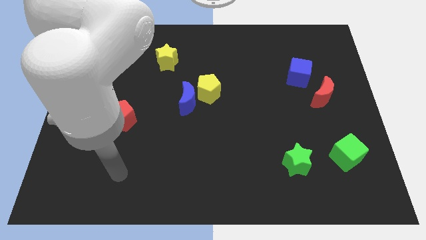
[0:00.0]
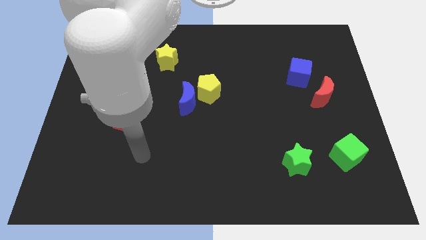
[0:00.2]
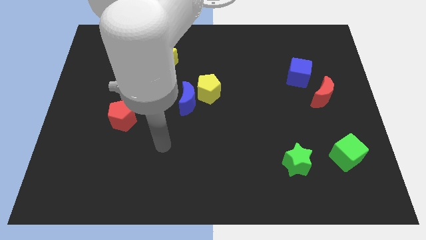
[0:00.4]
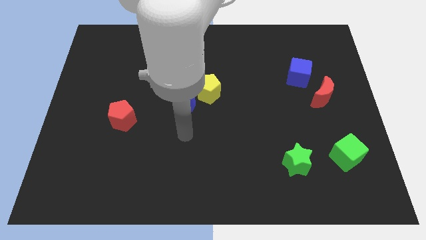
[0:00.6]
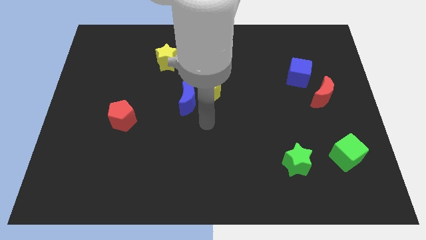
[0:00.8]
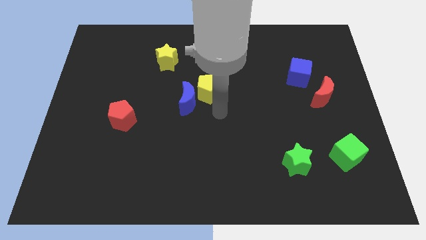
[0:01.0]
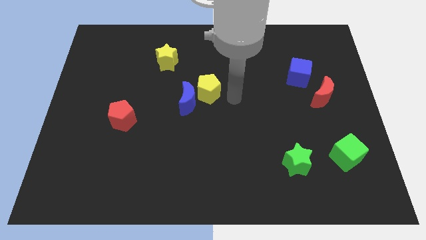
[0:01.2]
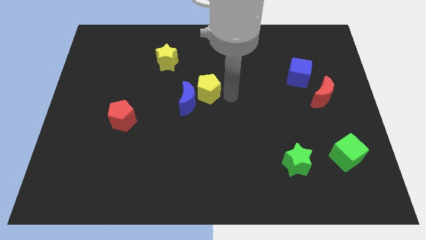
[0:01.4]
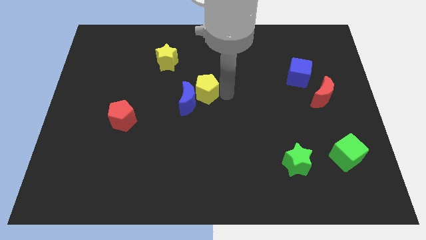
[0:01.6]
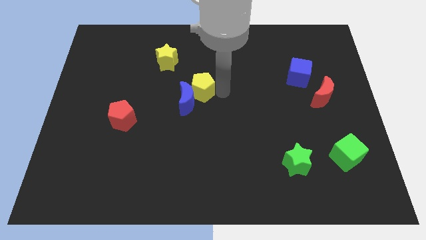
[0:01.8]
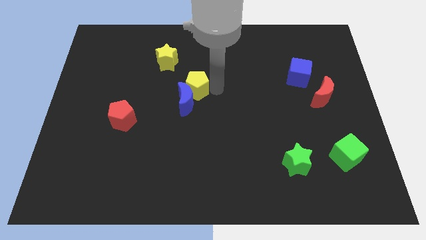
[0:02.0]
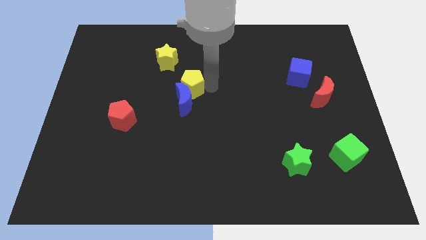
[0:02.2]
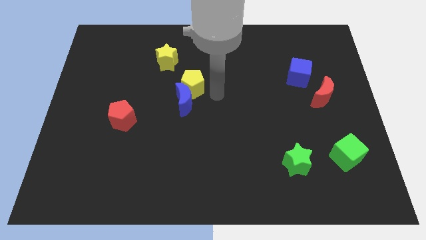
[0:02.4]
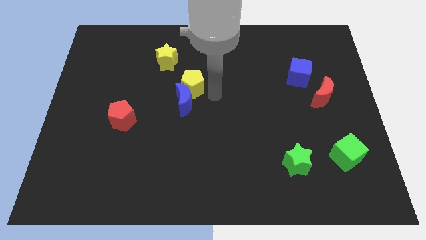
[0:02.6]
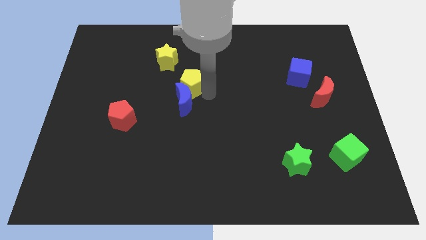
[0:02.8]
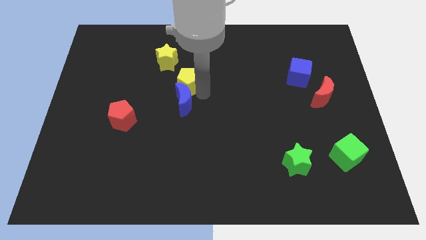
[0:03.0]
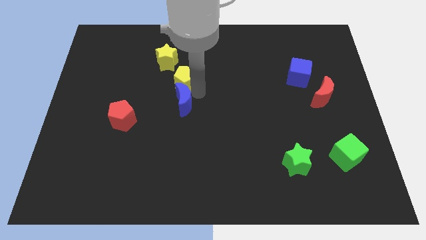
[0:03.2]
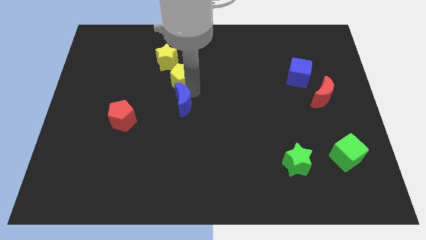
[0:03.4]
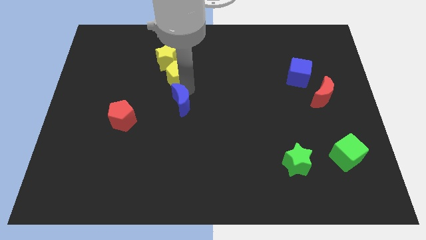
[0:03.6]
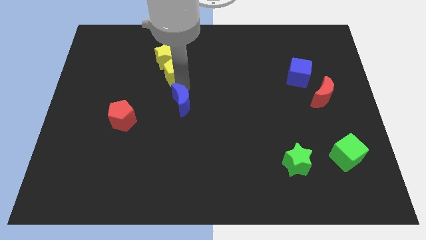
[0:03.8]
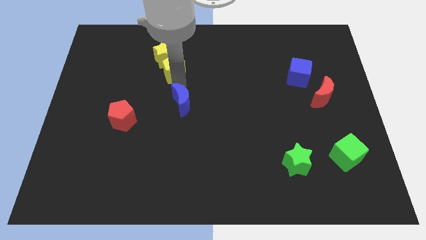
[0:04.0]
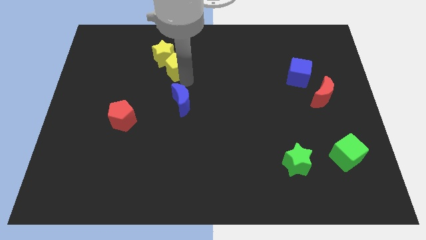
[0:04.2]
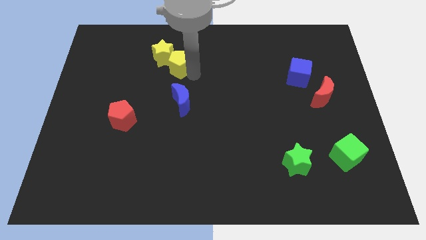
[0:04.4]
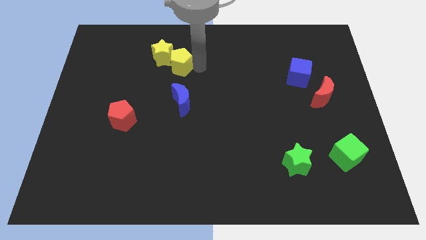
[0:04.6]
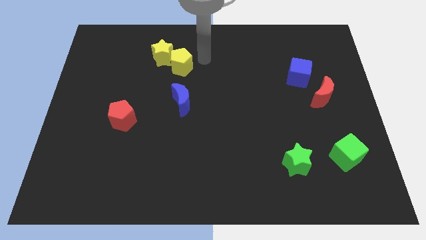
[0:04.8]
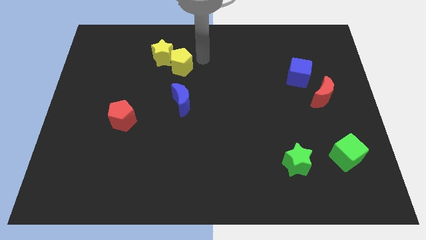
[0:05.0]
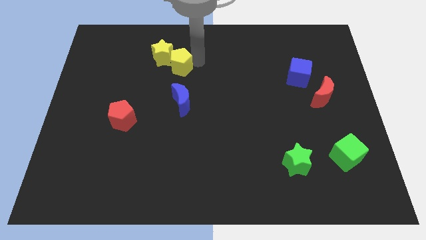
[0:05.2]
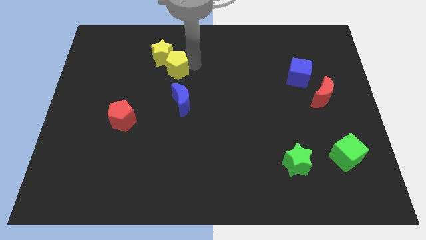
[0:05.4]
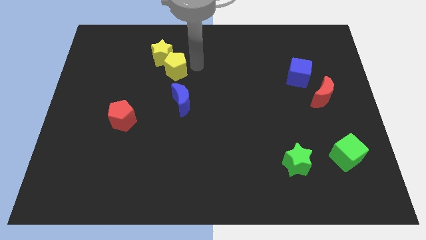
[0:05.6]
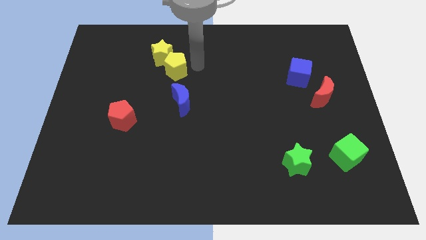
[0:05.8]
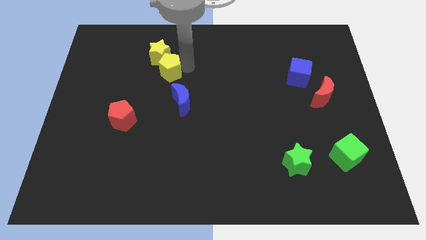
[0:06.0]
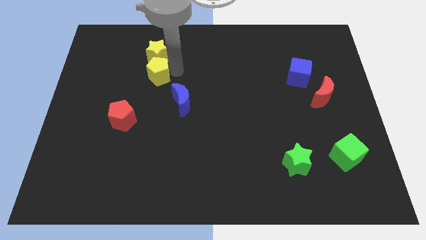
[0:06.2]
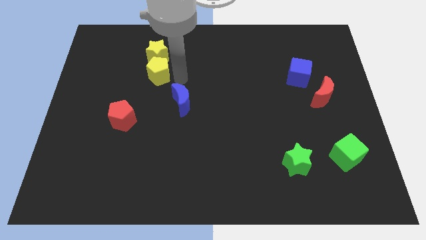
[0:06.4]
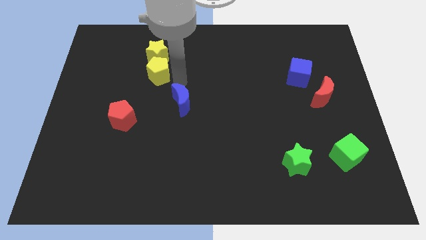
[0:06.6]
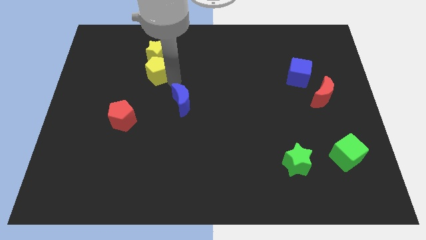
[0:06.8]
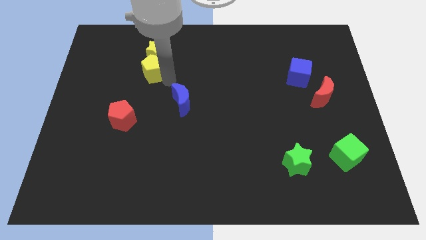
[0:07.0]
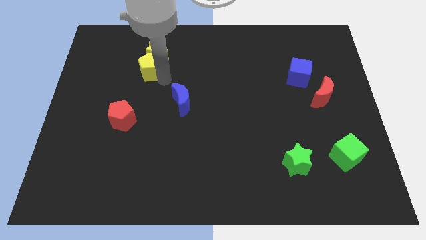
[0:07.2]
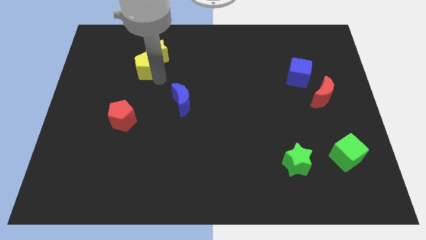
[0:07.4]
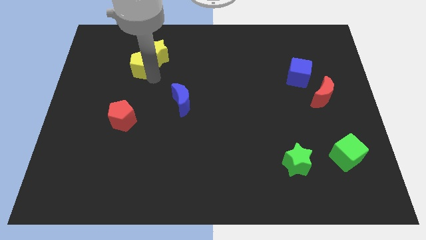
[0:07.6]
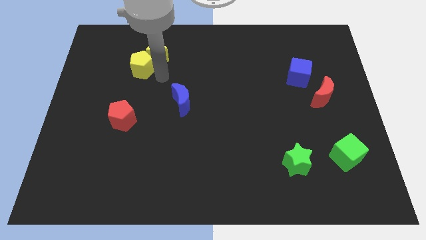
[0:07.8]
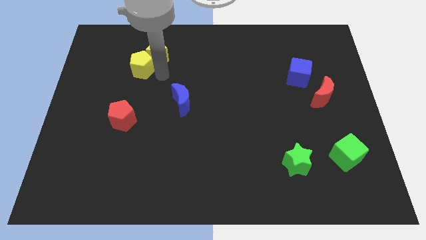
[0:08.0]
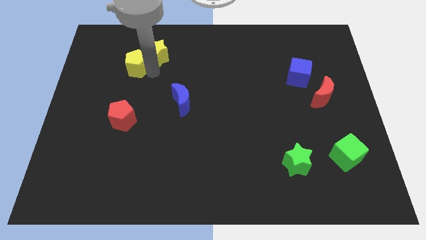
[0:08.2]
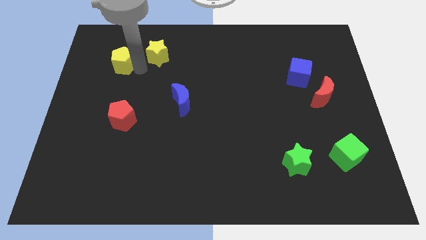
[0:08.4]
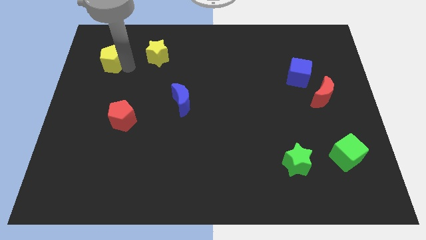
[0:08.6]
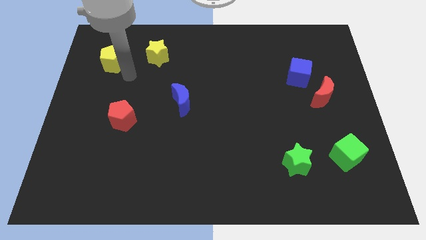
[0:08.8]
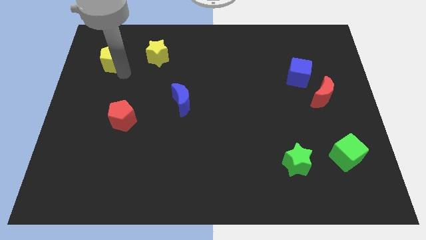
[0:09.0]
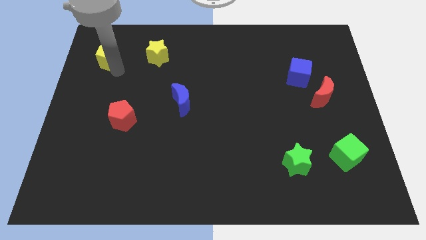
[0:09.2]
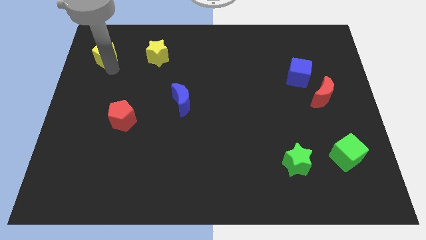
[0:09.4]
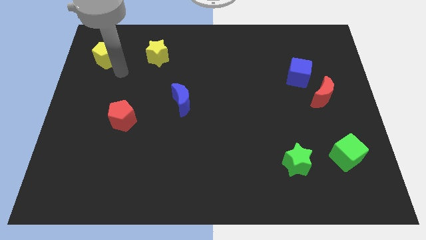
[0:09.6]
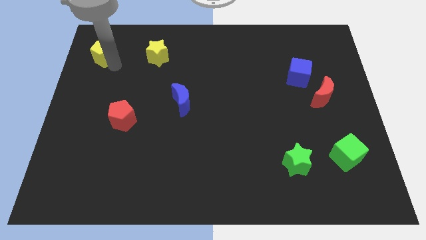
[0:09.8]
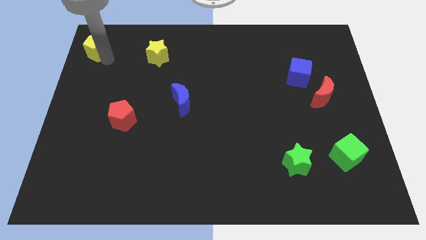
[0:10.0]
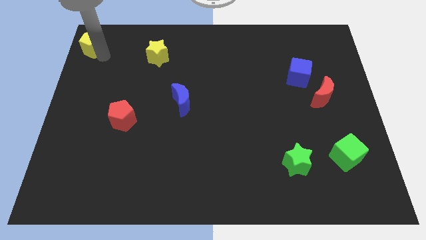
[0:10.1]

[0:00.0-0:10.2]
put the yellow pentagon to the upper left corner

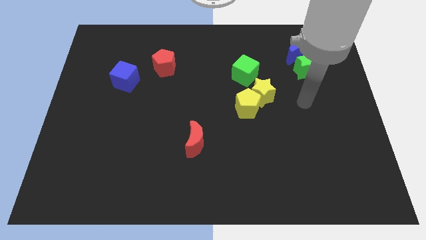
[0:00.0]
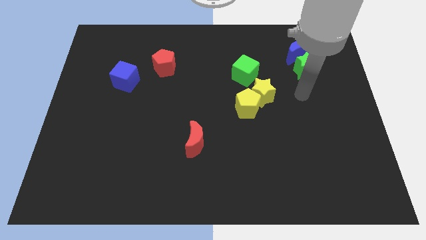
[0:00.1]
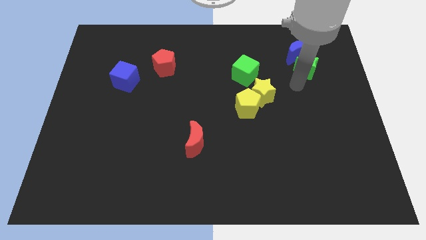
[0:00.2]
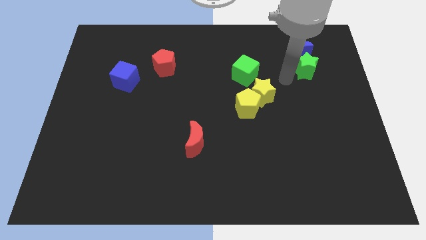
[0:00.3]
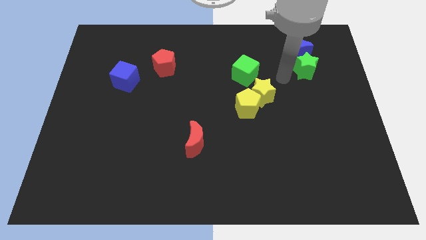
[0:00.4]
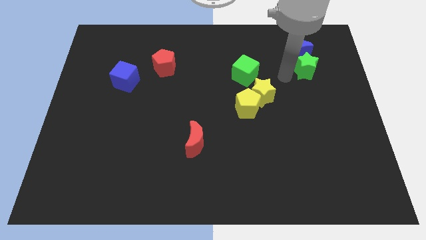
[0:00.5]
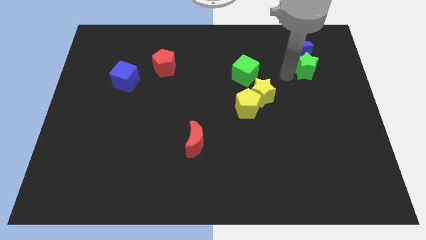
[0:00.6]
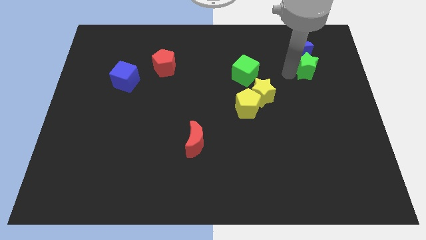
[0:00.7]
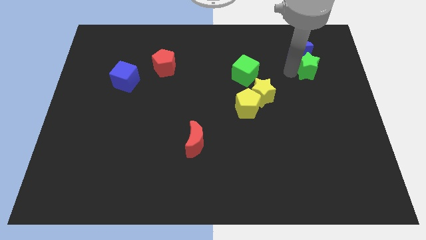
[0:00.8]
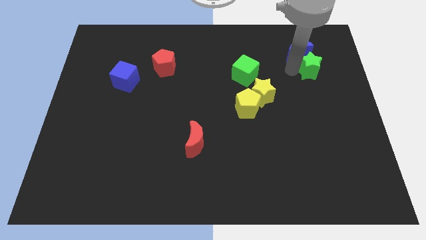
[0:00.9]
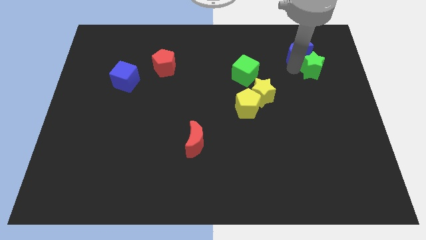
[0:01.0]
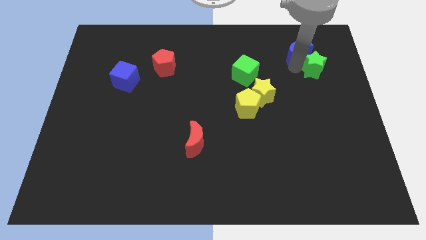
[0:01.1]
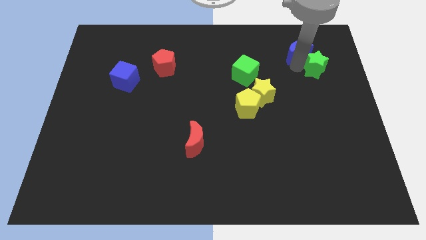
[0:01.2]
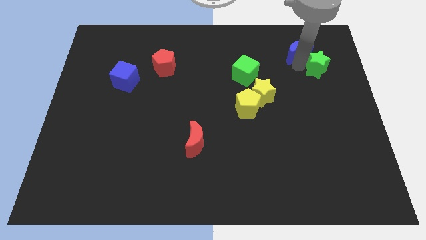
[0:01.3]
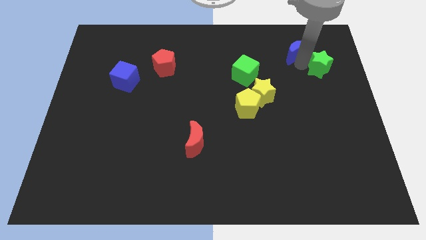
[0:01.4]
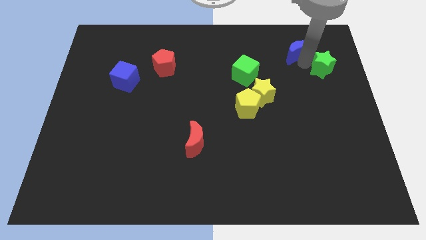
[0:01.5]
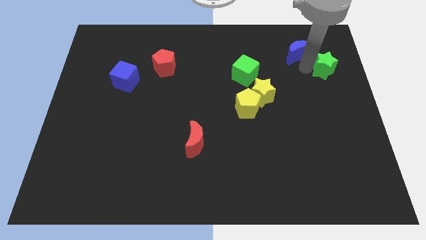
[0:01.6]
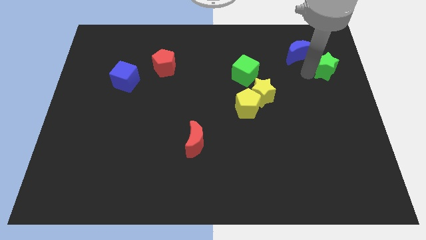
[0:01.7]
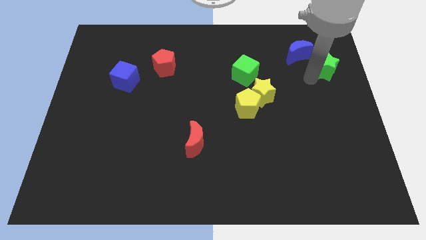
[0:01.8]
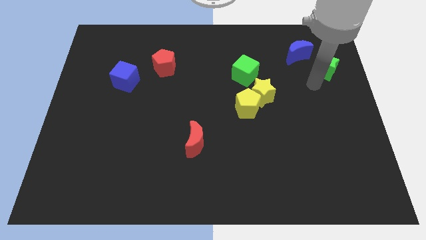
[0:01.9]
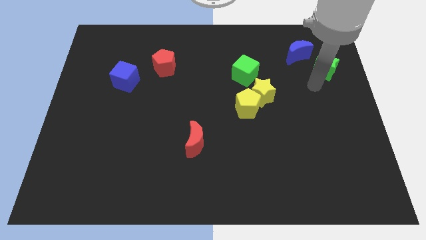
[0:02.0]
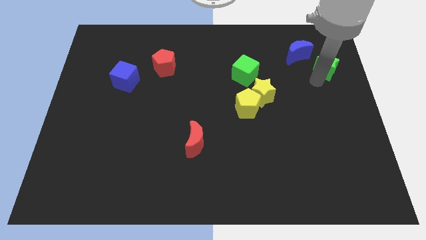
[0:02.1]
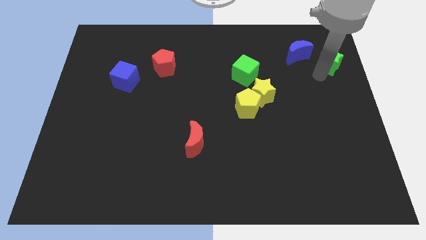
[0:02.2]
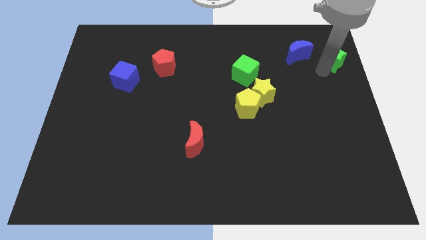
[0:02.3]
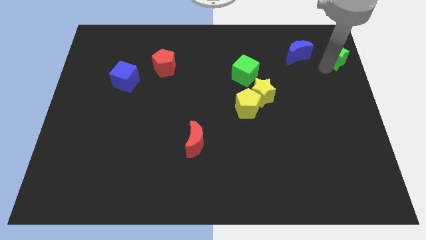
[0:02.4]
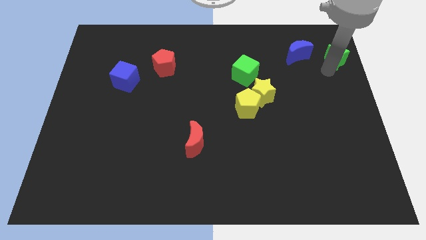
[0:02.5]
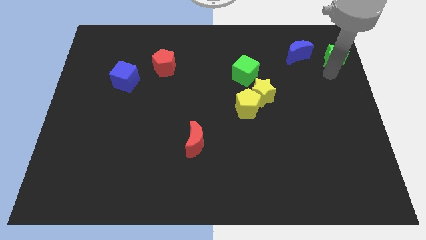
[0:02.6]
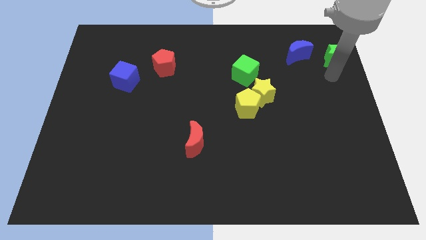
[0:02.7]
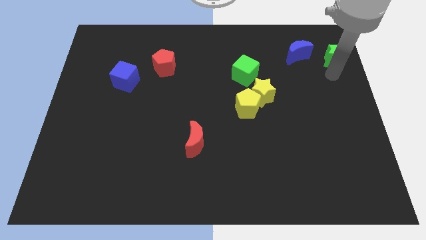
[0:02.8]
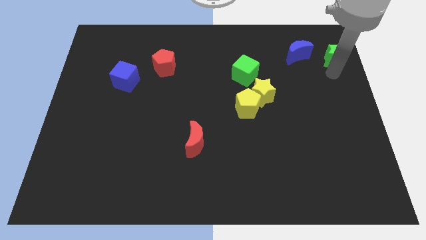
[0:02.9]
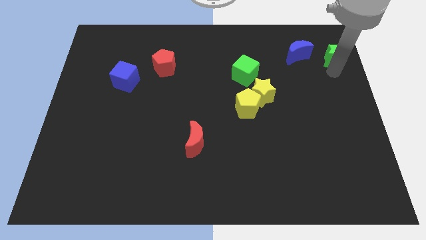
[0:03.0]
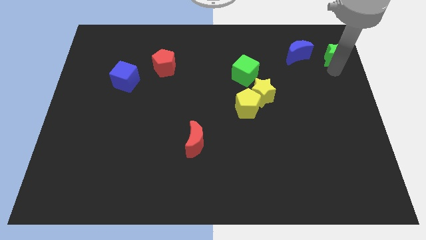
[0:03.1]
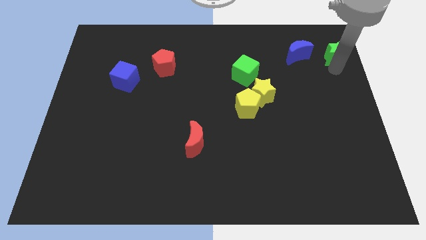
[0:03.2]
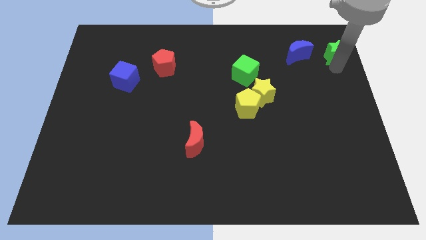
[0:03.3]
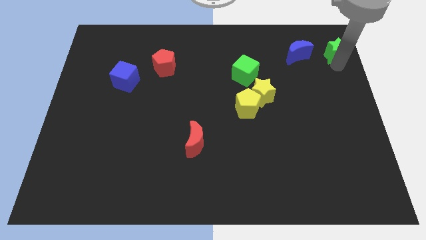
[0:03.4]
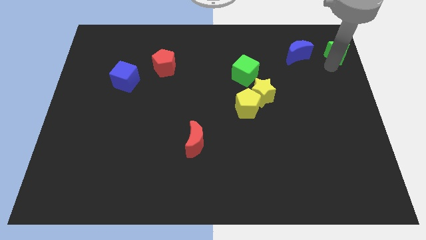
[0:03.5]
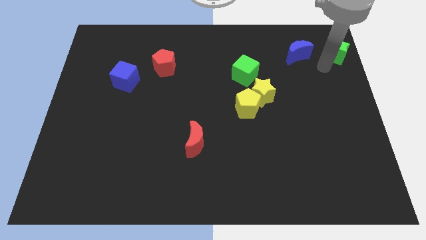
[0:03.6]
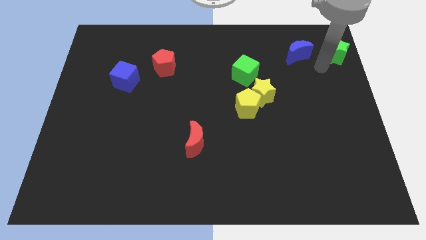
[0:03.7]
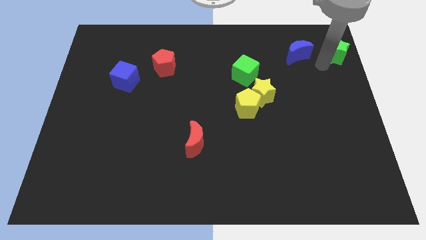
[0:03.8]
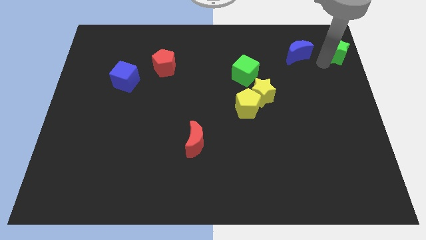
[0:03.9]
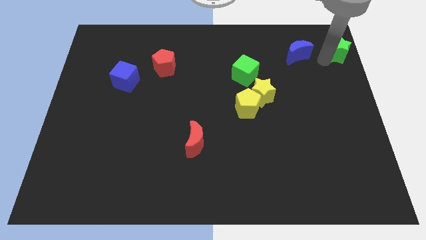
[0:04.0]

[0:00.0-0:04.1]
push the green star to the upper right corner
